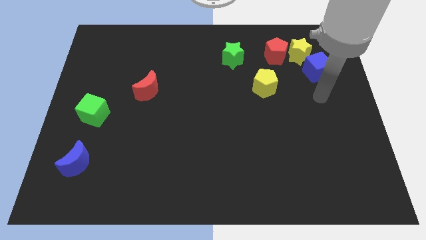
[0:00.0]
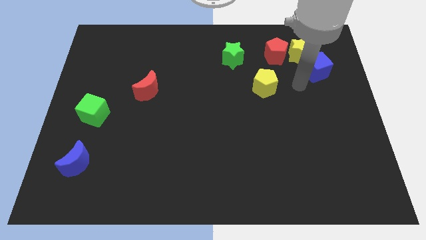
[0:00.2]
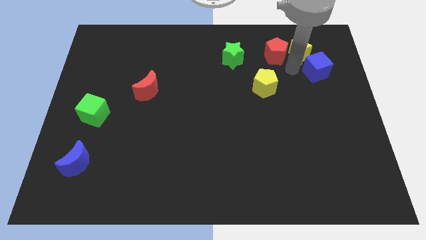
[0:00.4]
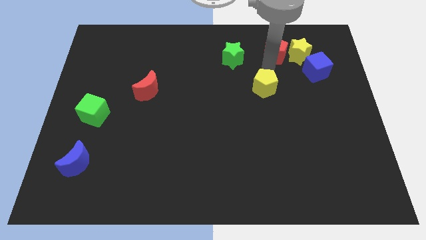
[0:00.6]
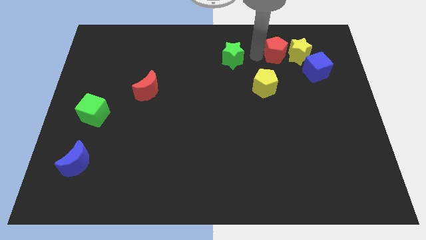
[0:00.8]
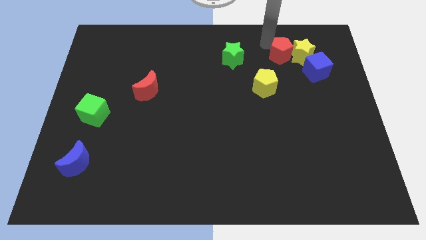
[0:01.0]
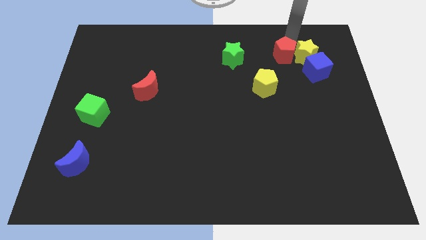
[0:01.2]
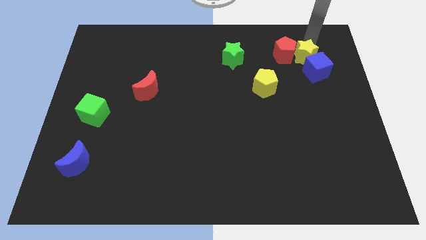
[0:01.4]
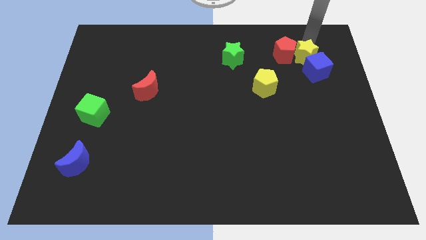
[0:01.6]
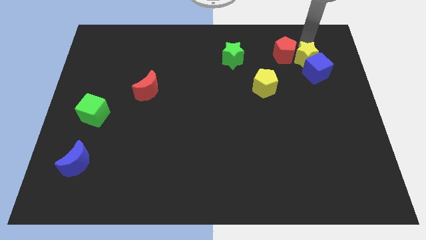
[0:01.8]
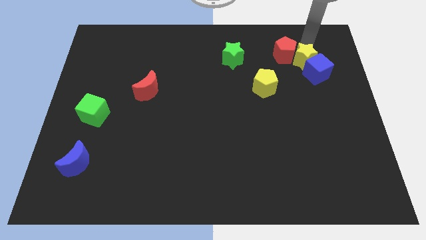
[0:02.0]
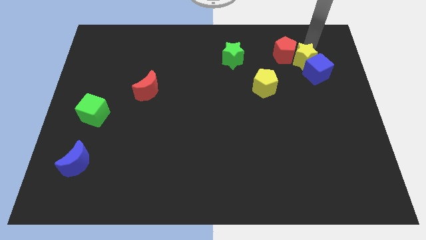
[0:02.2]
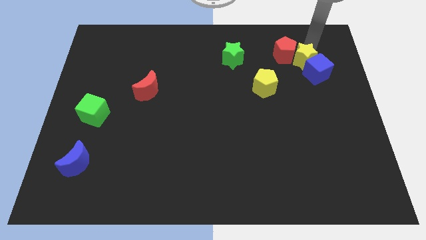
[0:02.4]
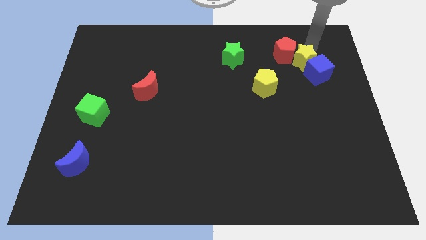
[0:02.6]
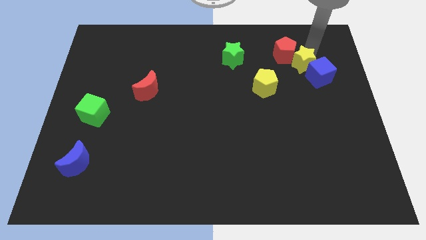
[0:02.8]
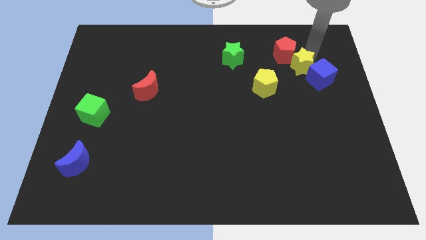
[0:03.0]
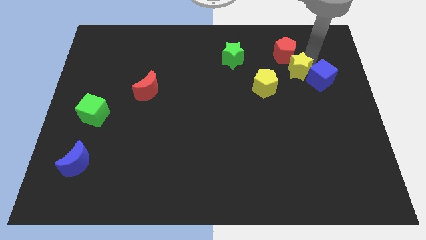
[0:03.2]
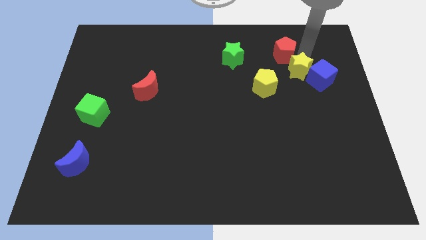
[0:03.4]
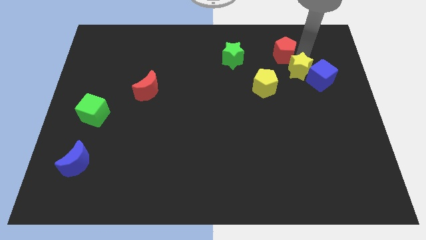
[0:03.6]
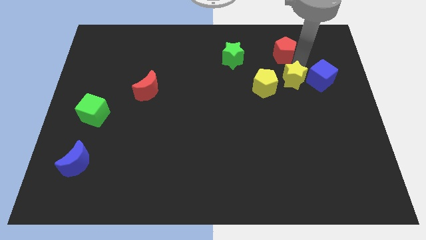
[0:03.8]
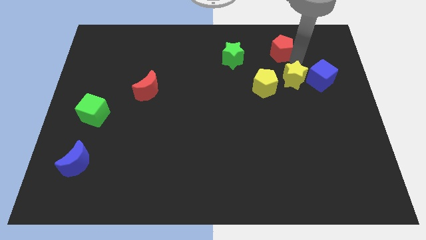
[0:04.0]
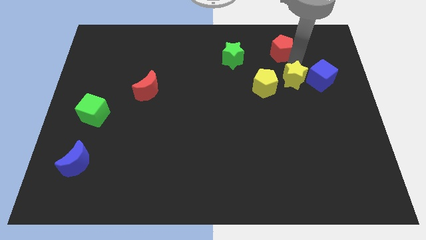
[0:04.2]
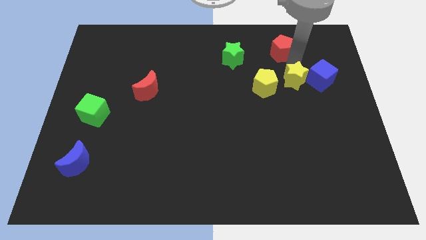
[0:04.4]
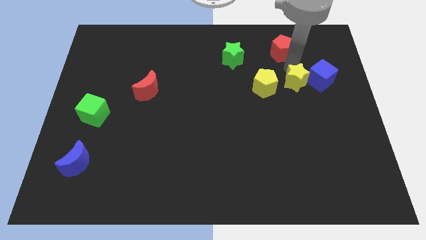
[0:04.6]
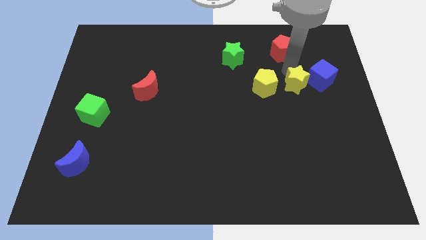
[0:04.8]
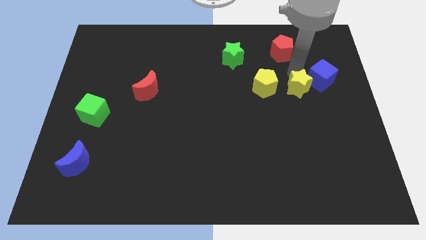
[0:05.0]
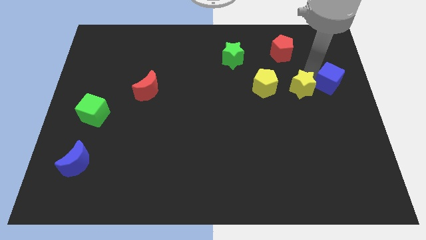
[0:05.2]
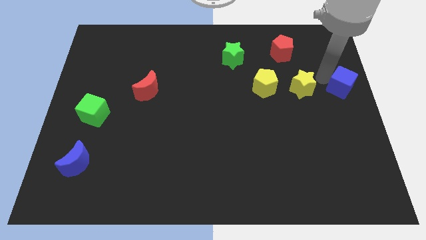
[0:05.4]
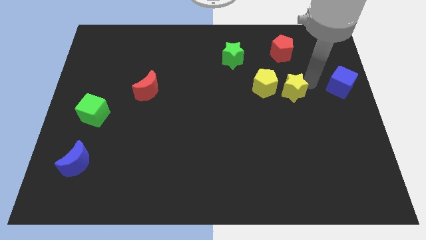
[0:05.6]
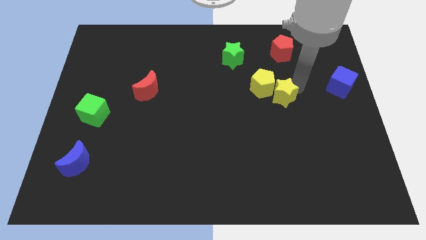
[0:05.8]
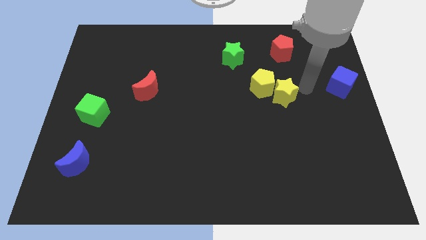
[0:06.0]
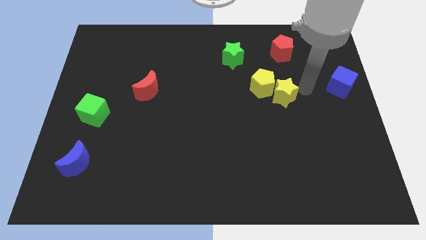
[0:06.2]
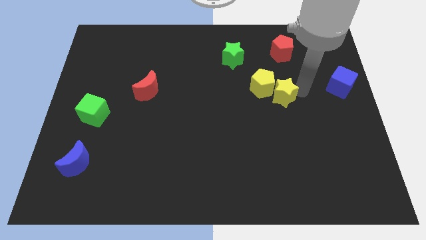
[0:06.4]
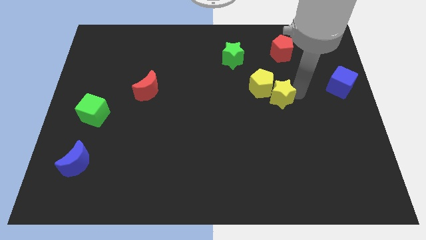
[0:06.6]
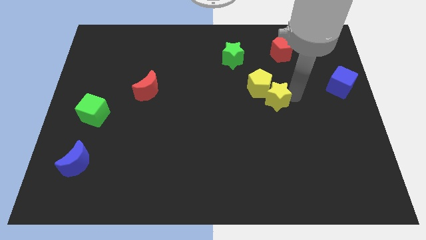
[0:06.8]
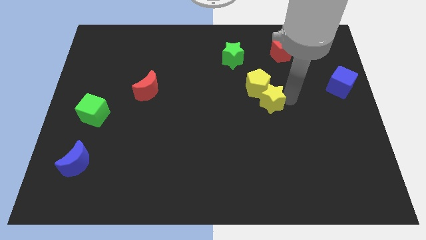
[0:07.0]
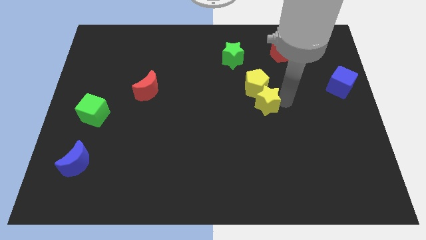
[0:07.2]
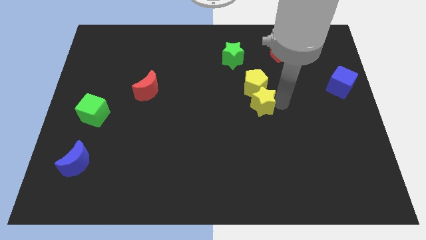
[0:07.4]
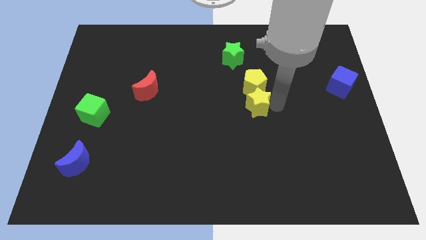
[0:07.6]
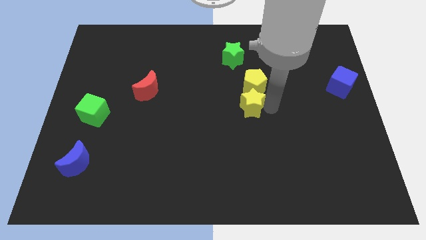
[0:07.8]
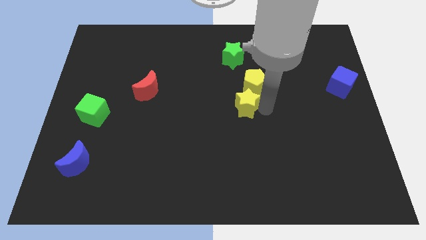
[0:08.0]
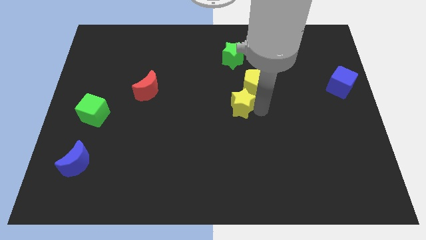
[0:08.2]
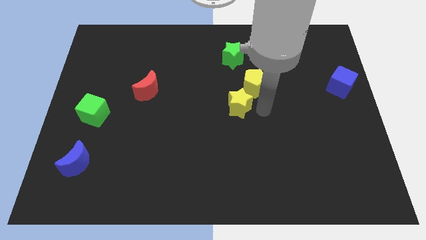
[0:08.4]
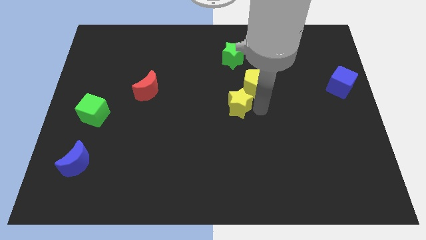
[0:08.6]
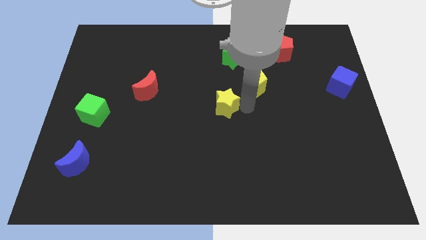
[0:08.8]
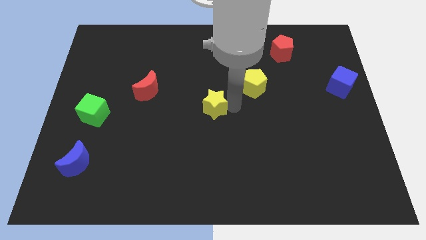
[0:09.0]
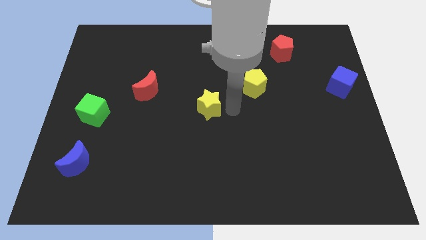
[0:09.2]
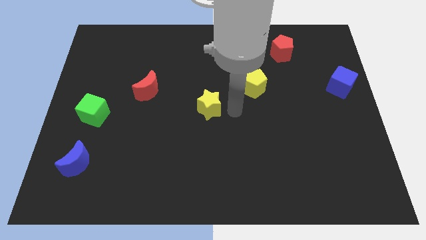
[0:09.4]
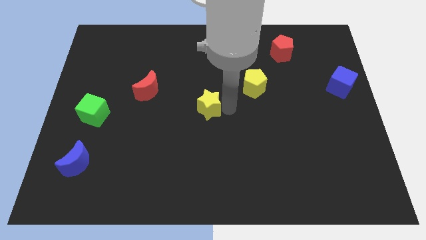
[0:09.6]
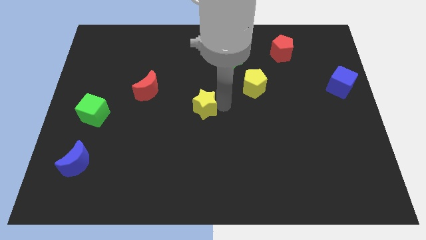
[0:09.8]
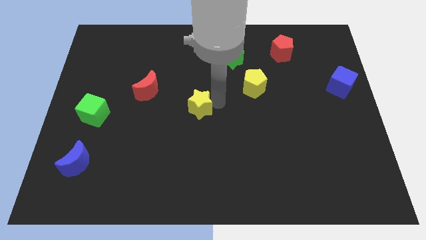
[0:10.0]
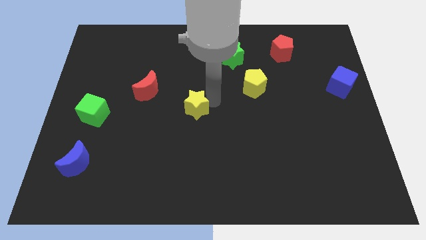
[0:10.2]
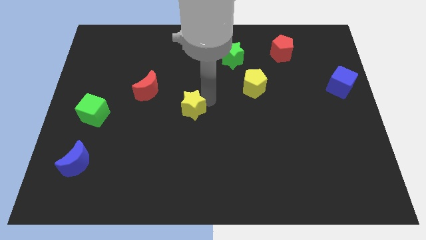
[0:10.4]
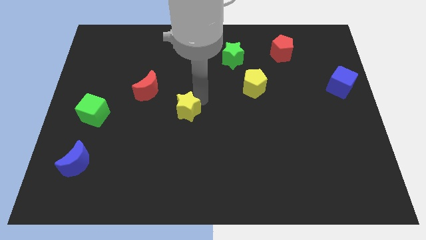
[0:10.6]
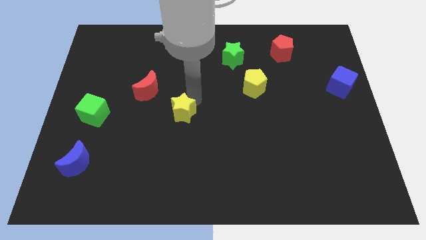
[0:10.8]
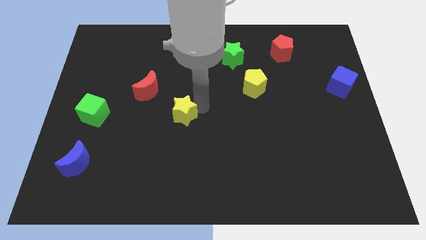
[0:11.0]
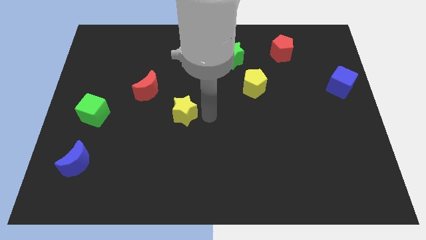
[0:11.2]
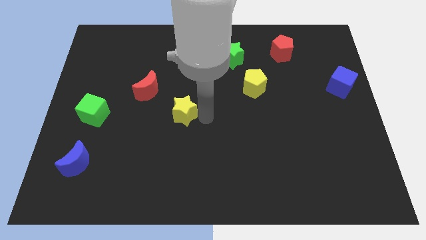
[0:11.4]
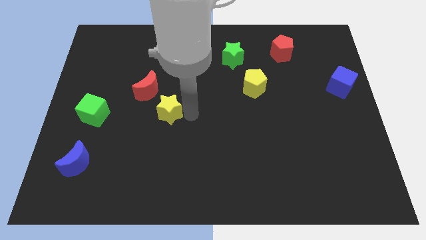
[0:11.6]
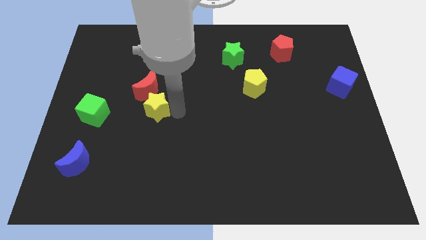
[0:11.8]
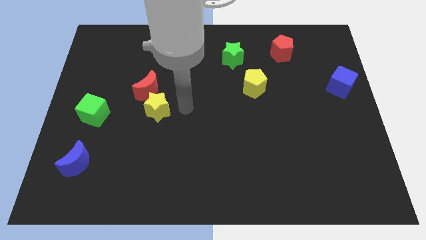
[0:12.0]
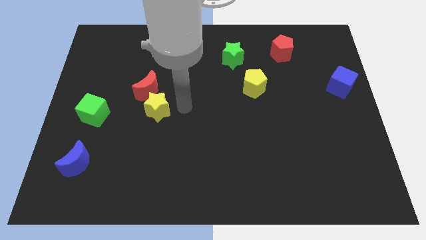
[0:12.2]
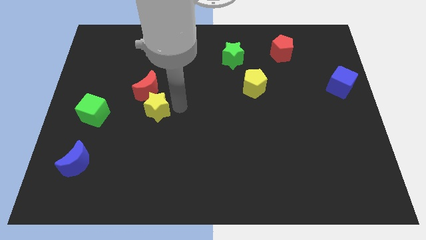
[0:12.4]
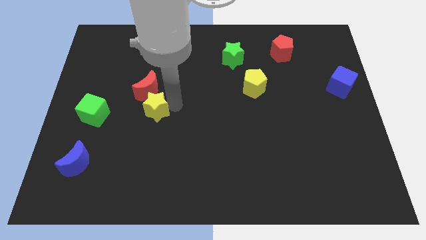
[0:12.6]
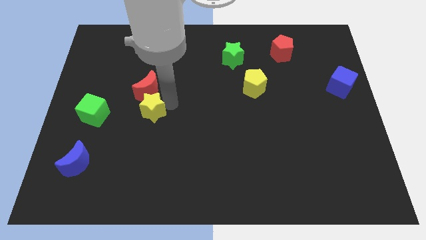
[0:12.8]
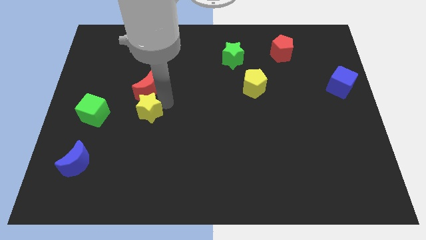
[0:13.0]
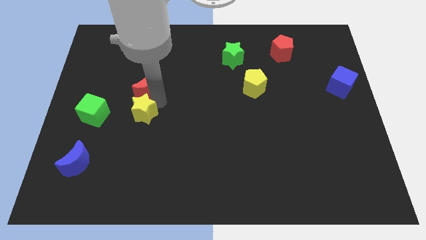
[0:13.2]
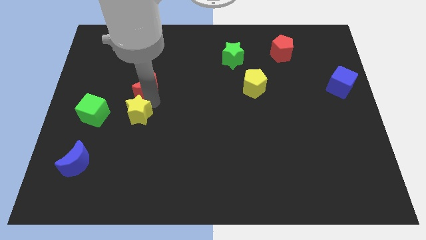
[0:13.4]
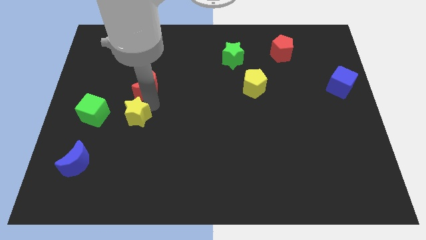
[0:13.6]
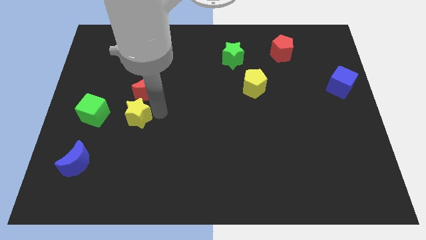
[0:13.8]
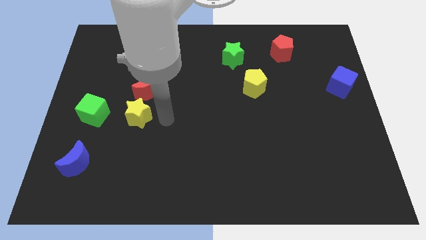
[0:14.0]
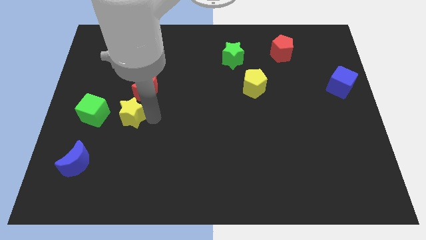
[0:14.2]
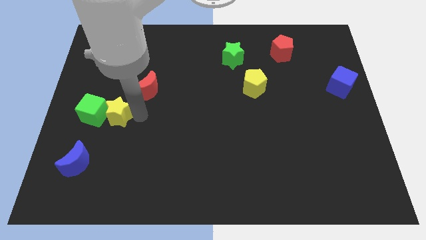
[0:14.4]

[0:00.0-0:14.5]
slide the yellow star next to the green cube
